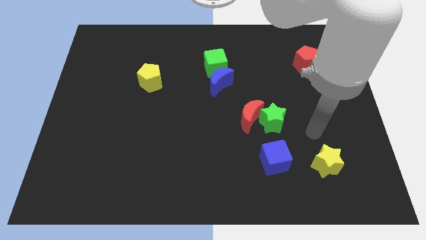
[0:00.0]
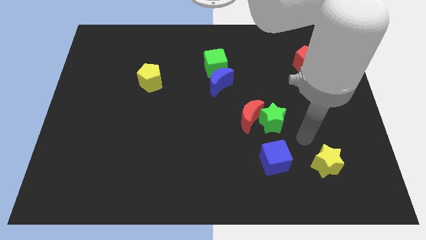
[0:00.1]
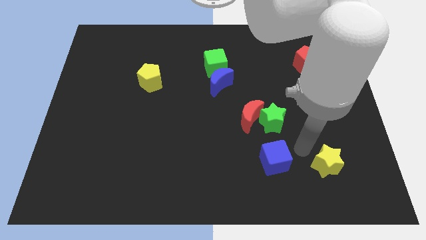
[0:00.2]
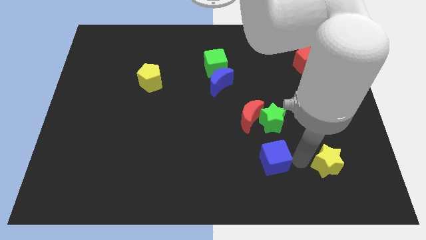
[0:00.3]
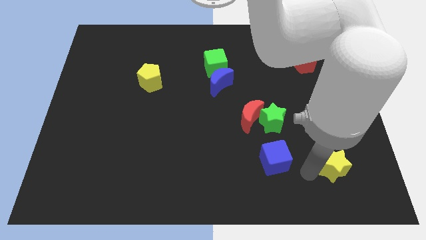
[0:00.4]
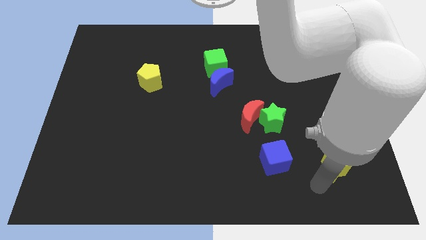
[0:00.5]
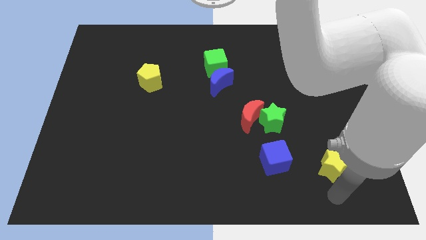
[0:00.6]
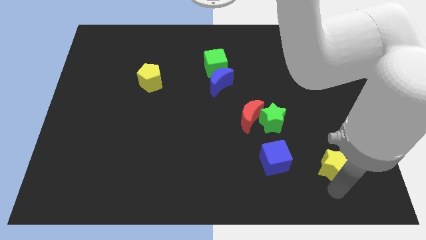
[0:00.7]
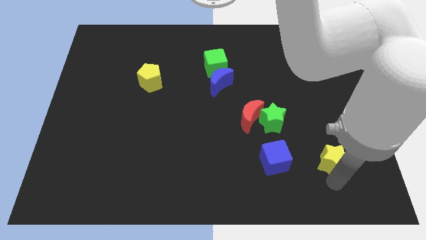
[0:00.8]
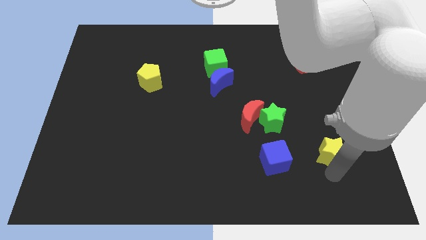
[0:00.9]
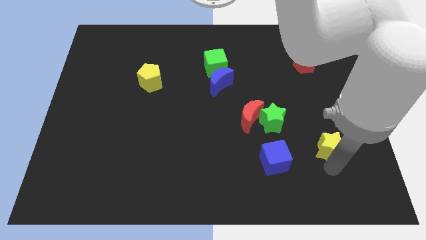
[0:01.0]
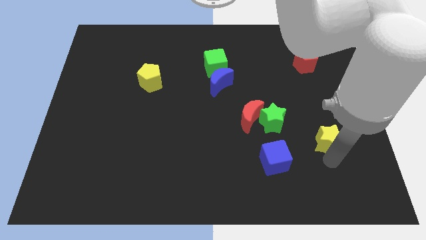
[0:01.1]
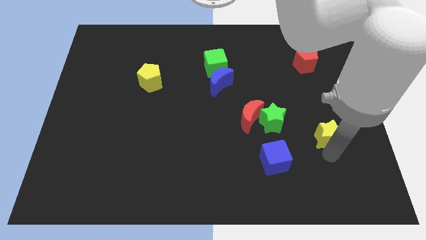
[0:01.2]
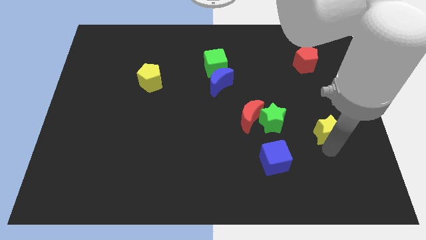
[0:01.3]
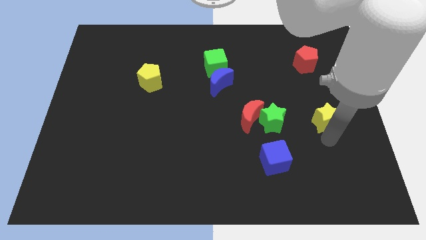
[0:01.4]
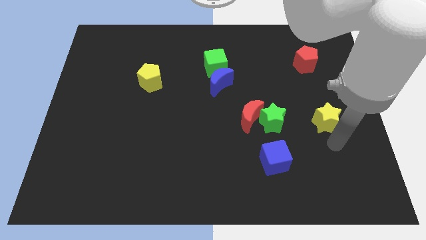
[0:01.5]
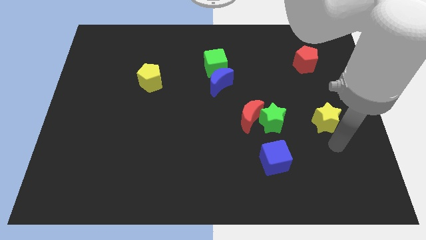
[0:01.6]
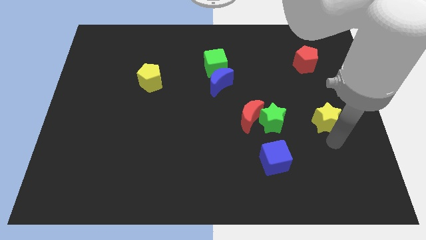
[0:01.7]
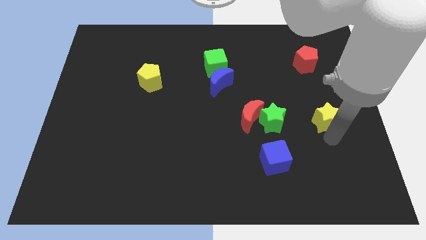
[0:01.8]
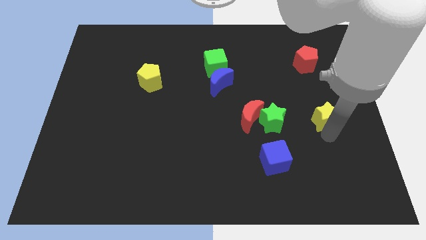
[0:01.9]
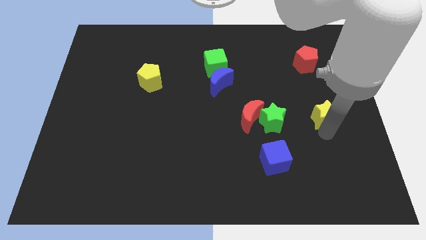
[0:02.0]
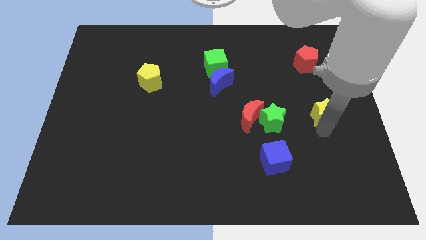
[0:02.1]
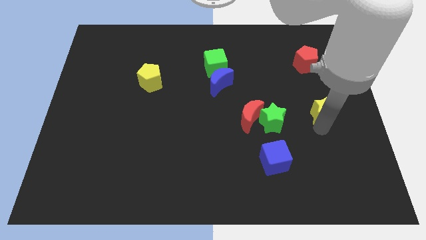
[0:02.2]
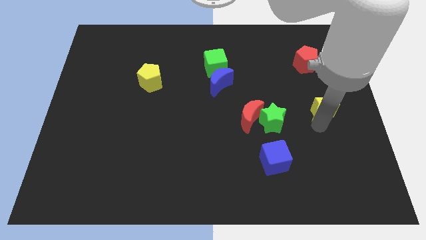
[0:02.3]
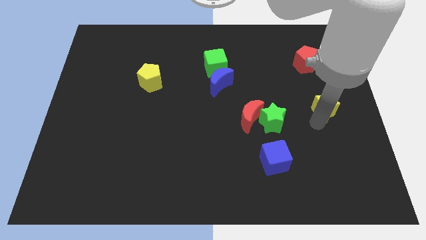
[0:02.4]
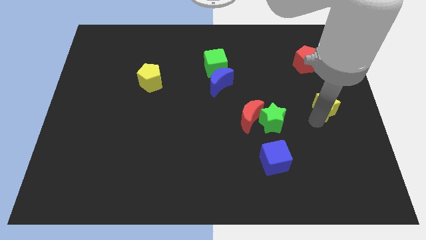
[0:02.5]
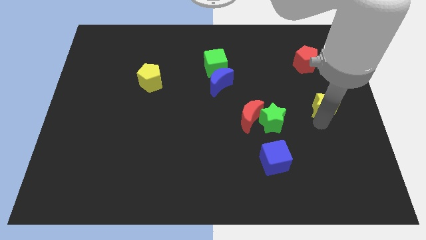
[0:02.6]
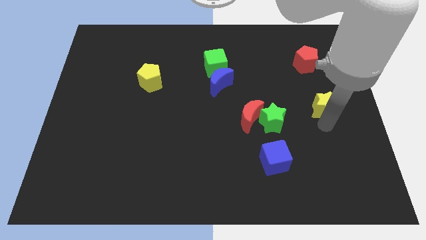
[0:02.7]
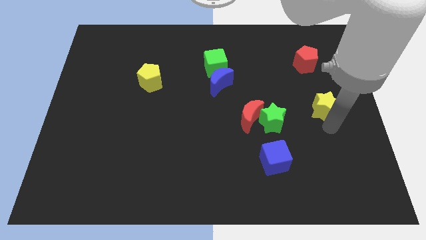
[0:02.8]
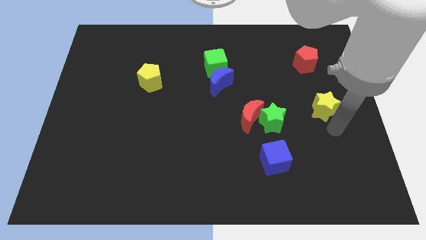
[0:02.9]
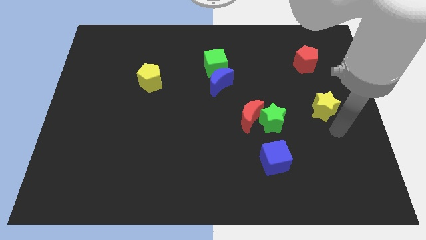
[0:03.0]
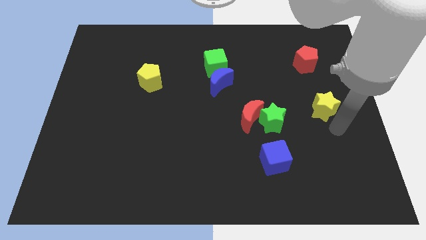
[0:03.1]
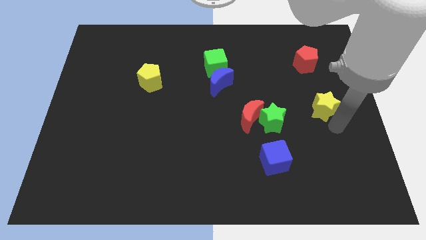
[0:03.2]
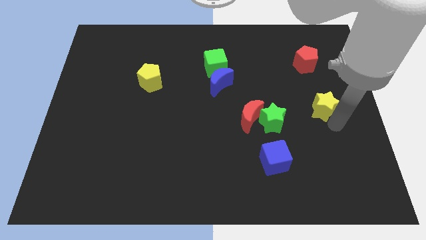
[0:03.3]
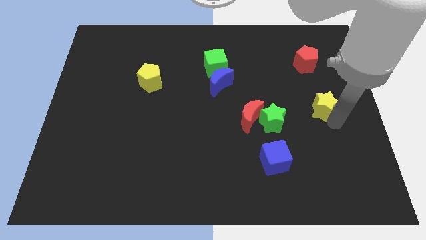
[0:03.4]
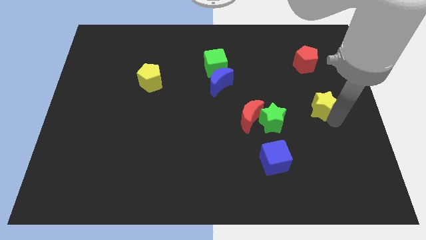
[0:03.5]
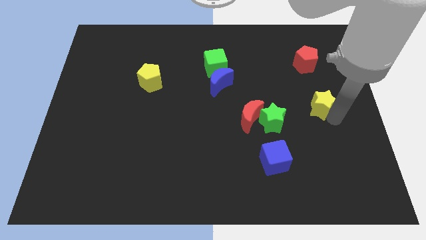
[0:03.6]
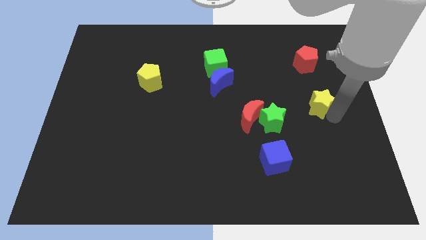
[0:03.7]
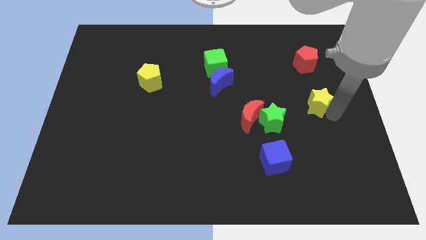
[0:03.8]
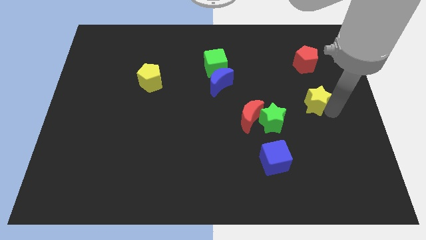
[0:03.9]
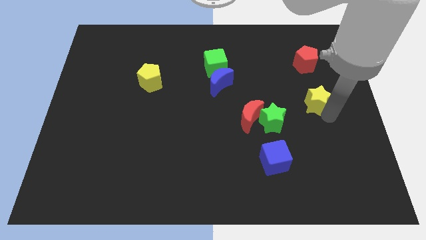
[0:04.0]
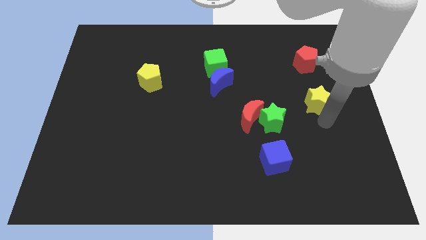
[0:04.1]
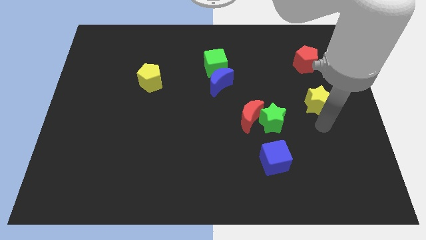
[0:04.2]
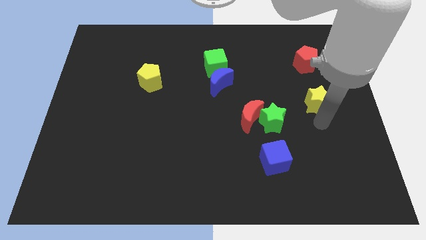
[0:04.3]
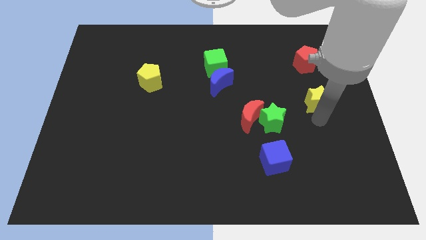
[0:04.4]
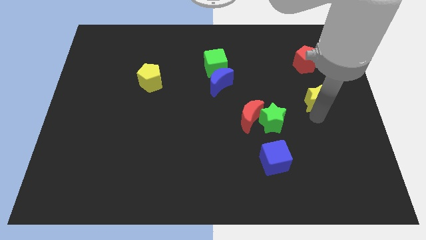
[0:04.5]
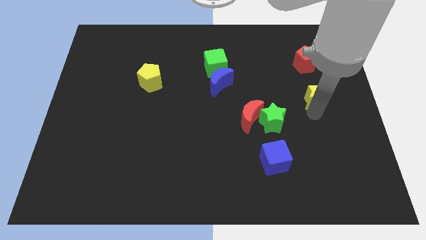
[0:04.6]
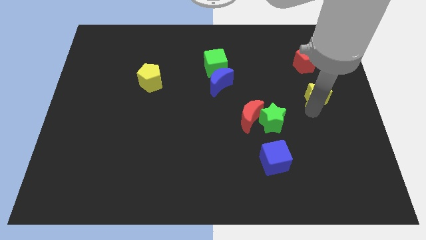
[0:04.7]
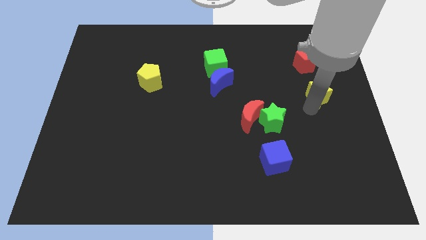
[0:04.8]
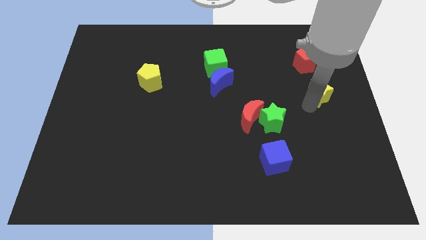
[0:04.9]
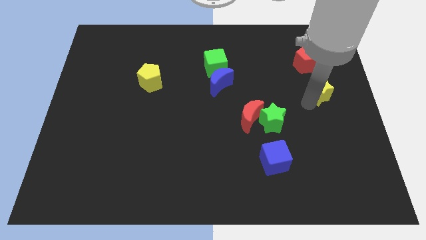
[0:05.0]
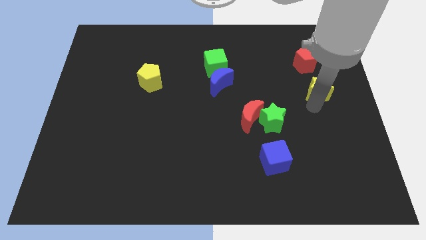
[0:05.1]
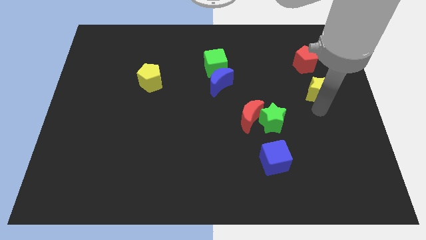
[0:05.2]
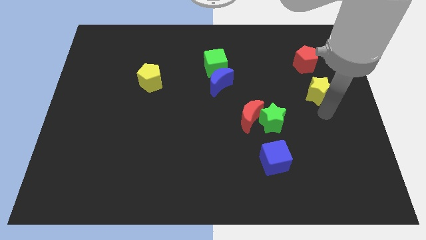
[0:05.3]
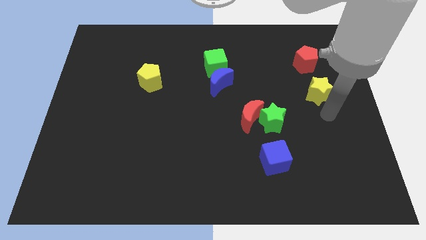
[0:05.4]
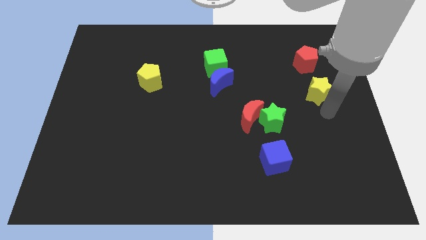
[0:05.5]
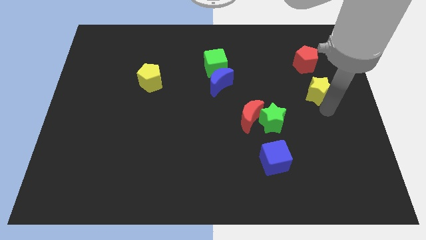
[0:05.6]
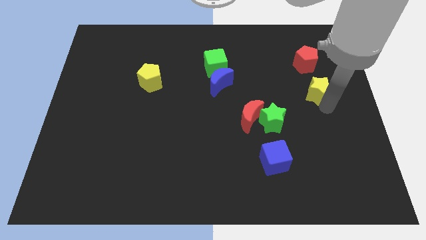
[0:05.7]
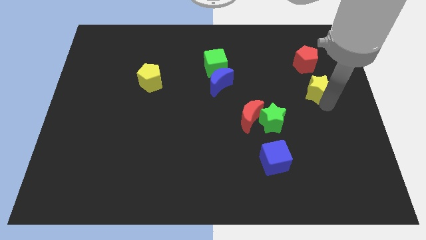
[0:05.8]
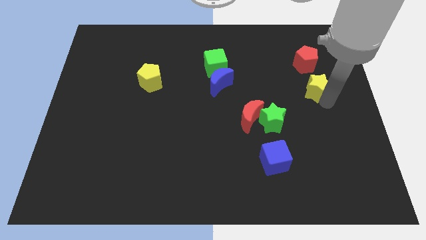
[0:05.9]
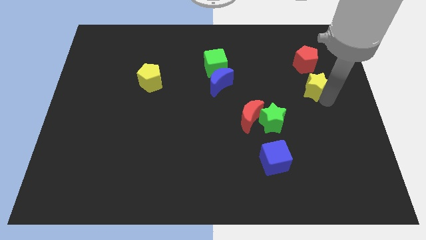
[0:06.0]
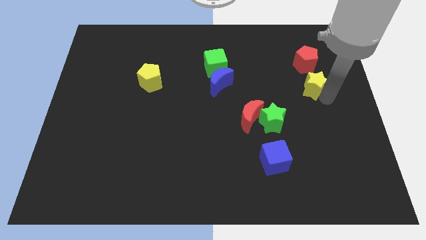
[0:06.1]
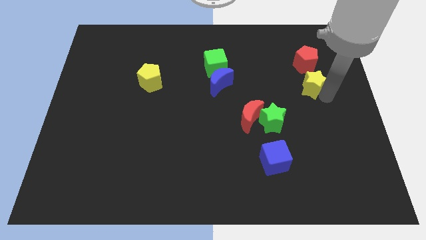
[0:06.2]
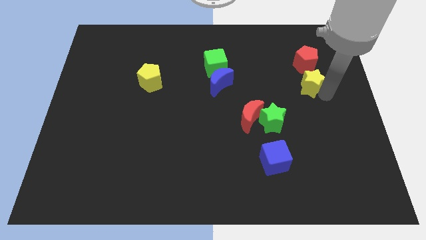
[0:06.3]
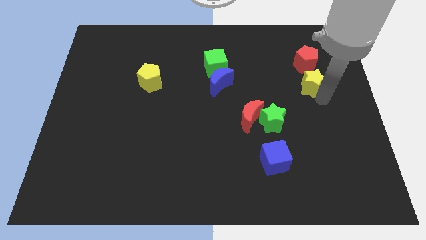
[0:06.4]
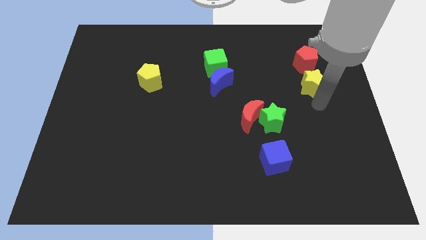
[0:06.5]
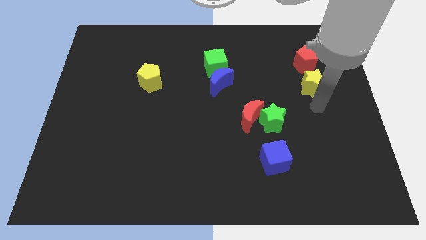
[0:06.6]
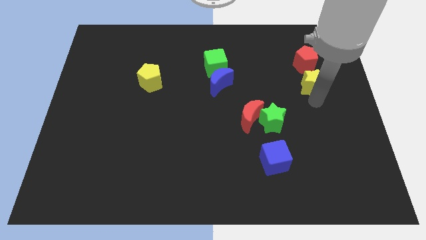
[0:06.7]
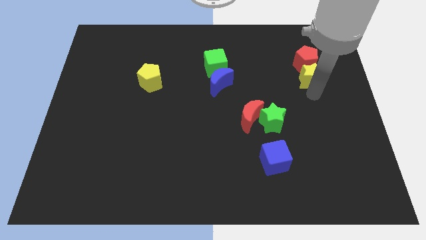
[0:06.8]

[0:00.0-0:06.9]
move the yellow star to the red pentagon

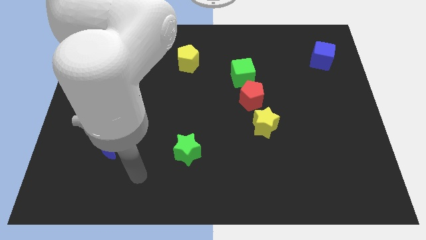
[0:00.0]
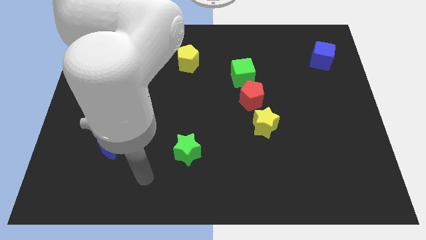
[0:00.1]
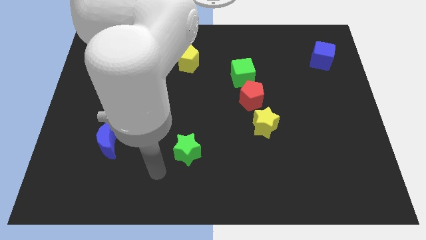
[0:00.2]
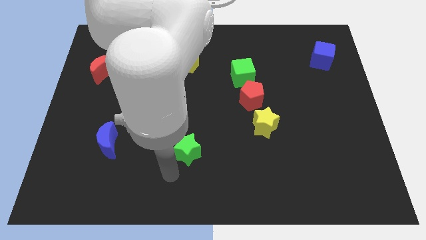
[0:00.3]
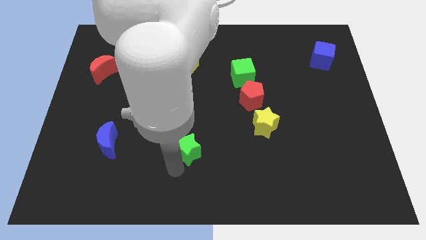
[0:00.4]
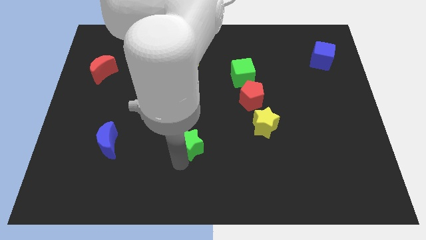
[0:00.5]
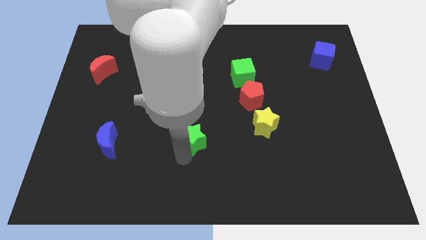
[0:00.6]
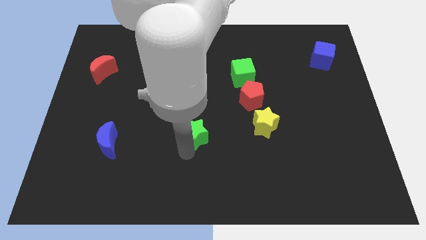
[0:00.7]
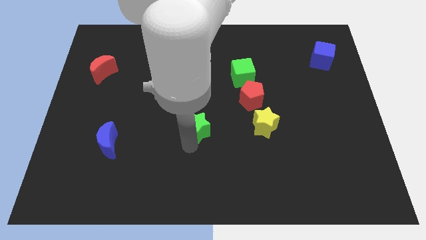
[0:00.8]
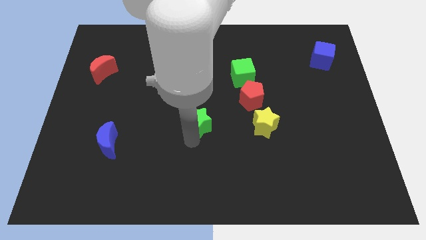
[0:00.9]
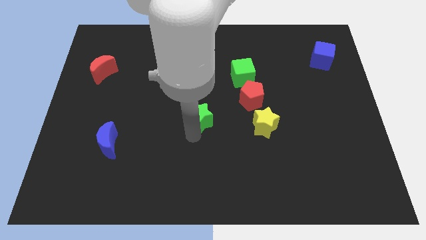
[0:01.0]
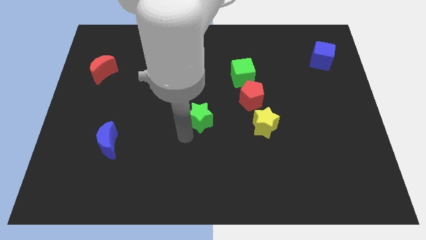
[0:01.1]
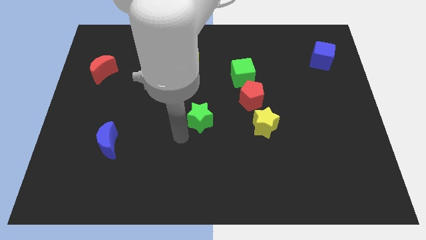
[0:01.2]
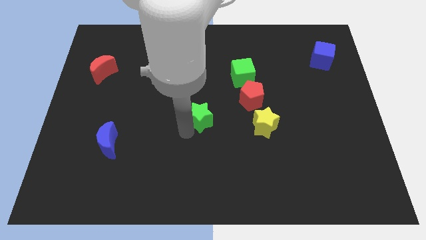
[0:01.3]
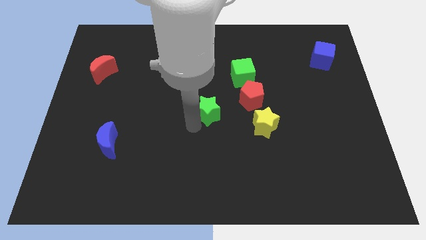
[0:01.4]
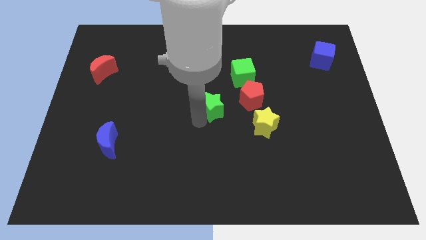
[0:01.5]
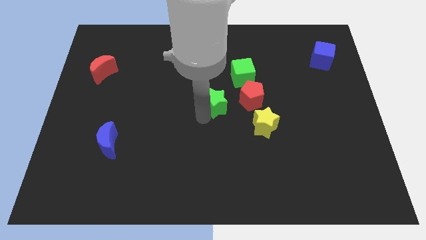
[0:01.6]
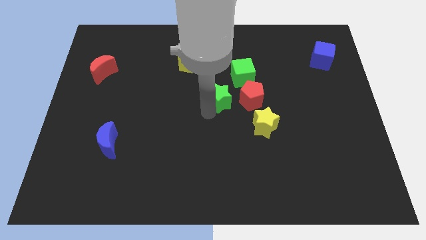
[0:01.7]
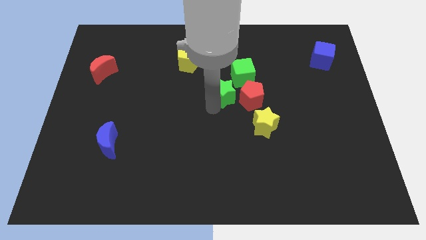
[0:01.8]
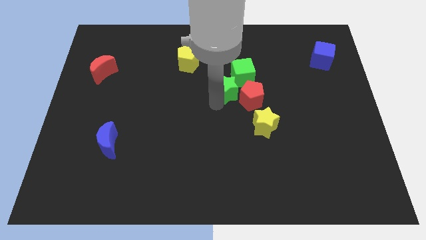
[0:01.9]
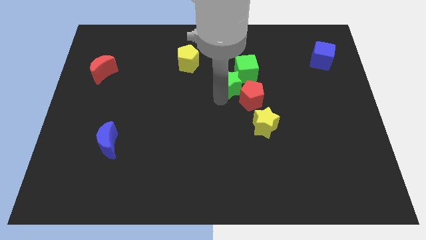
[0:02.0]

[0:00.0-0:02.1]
move the green star close to the green cube
